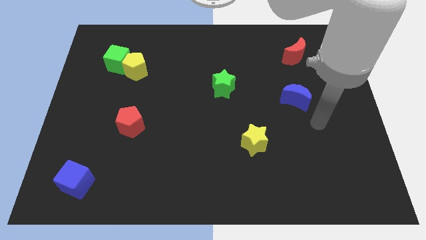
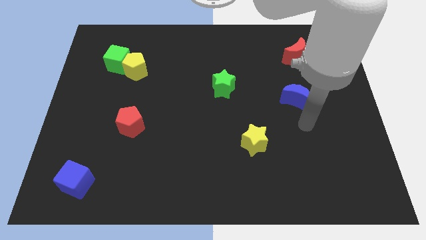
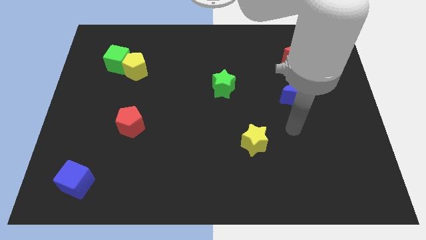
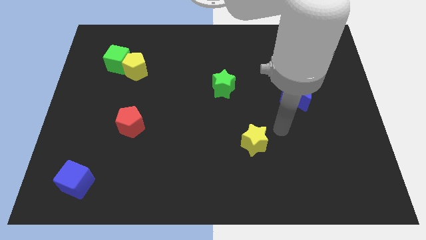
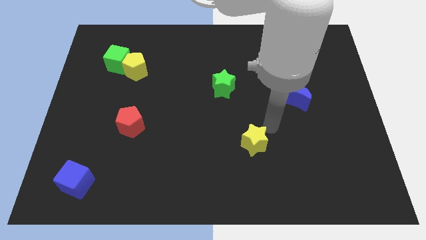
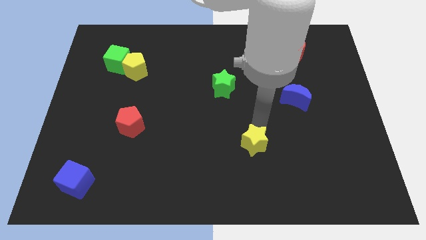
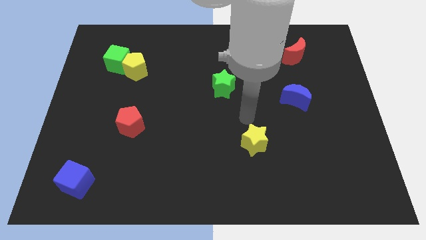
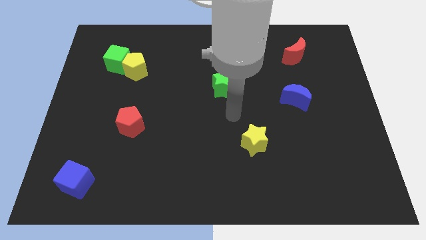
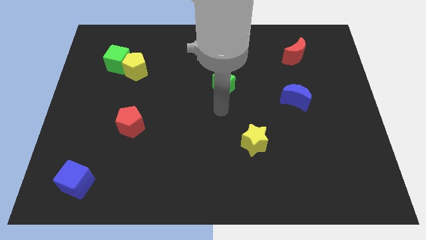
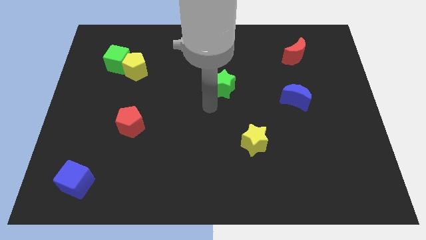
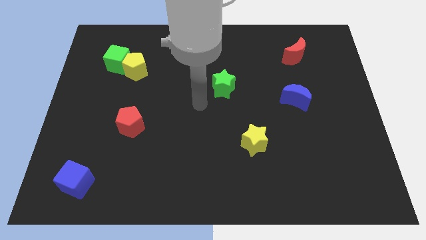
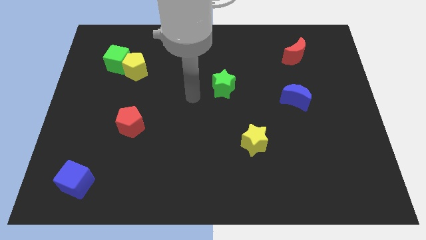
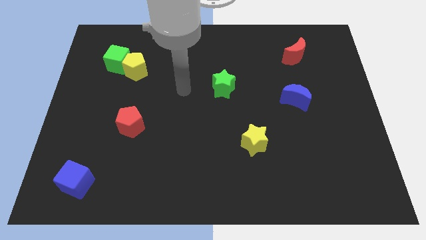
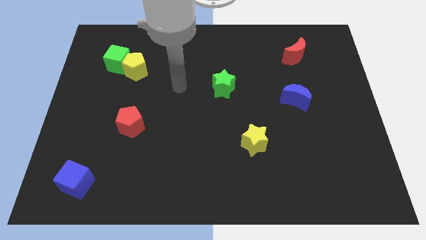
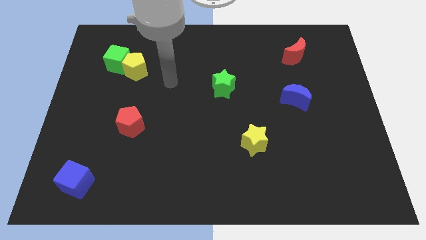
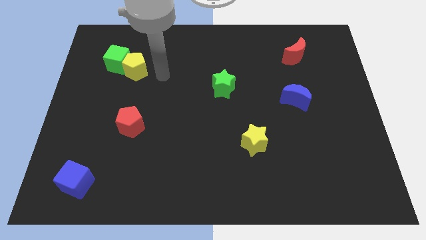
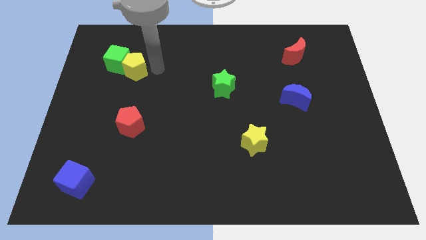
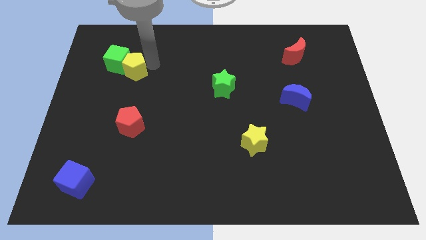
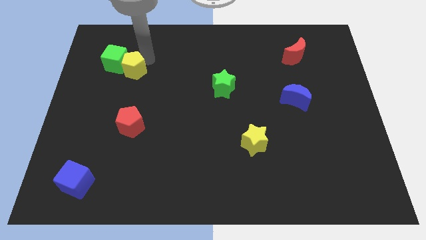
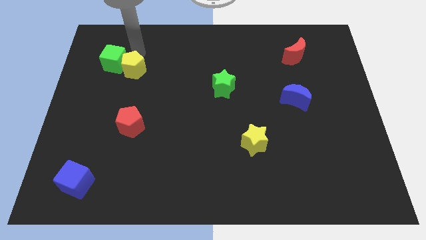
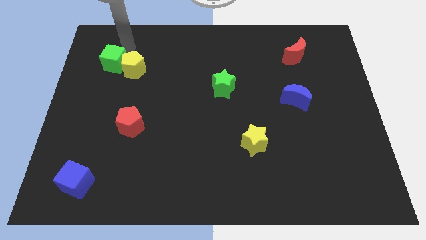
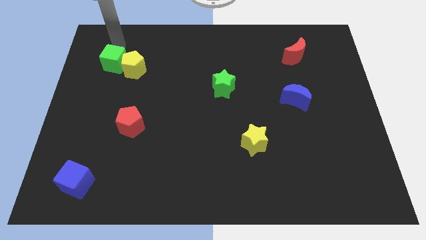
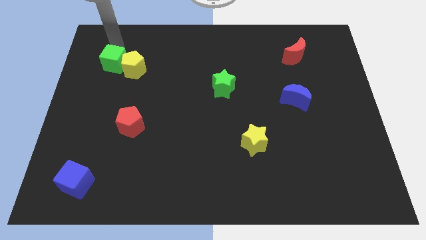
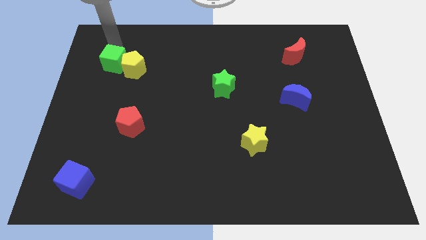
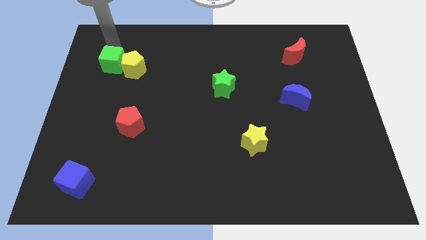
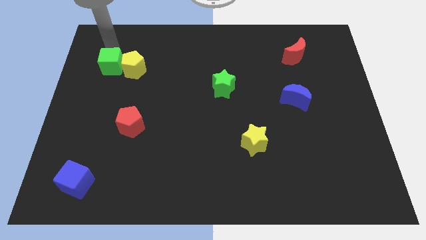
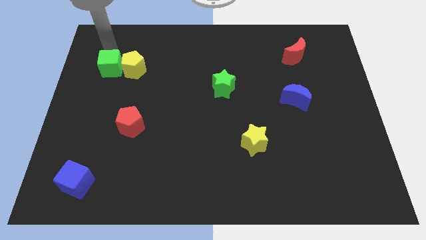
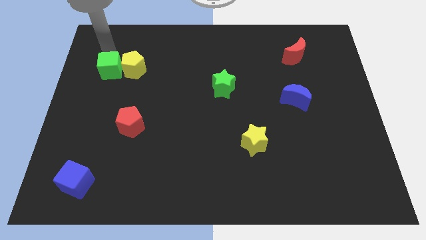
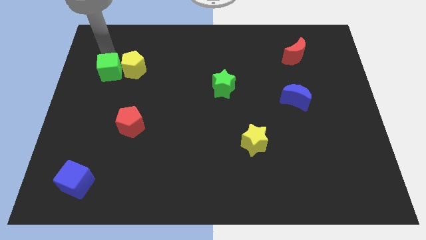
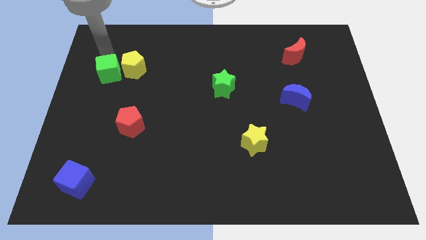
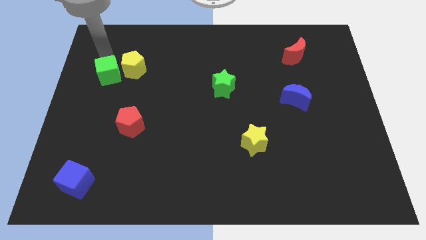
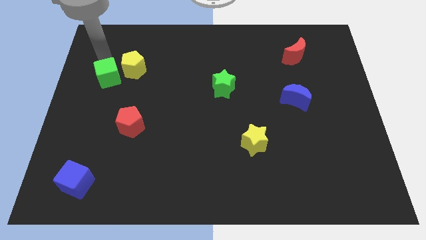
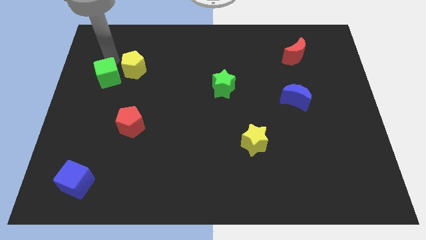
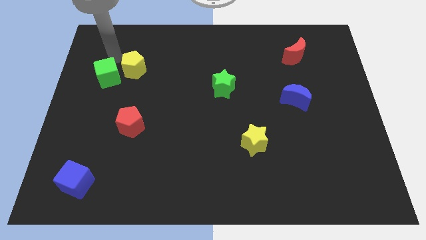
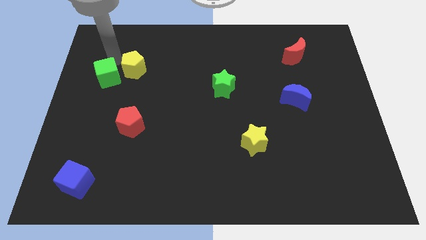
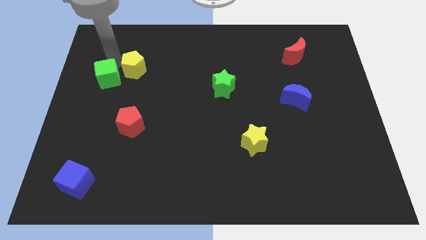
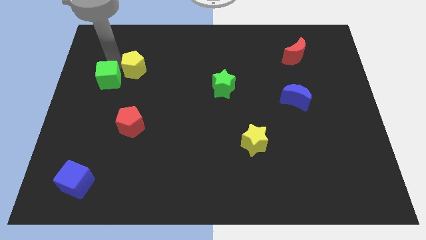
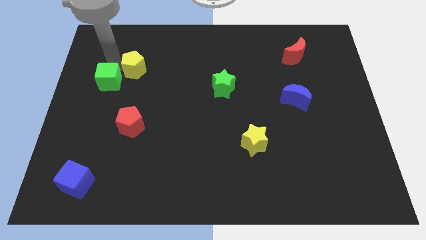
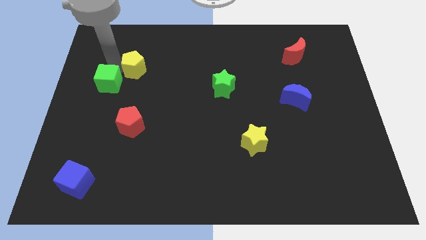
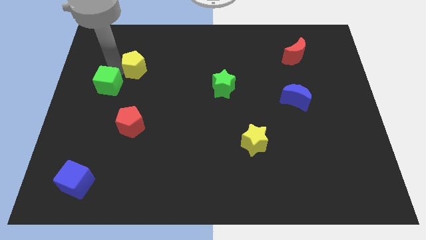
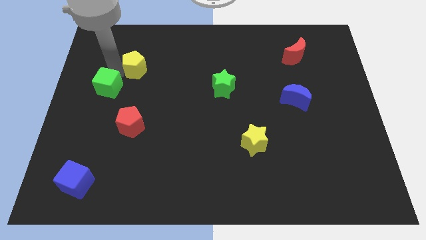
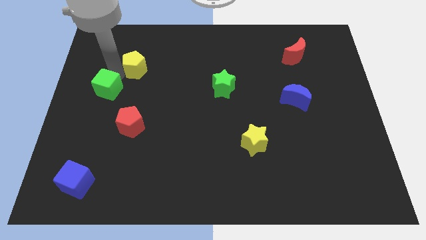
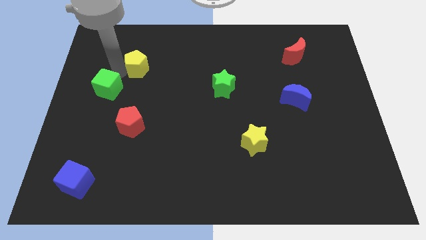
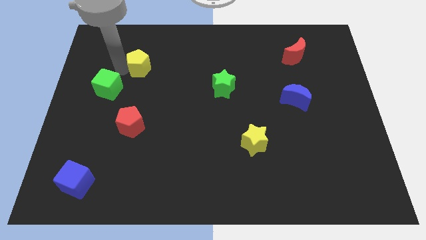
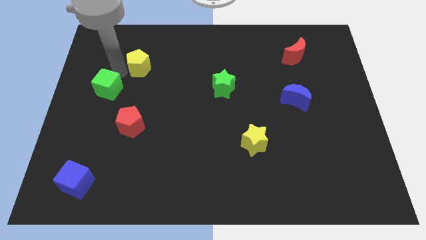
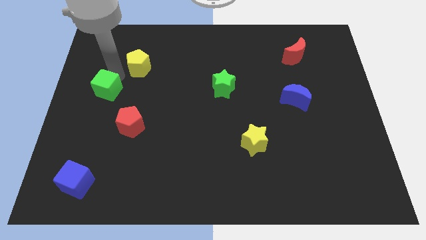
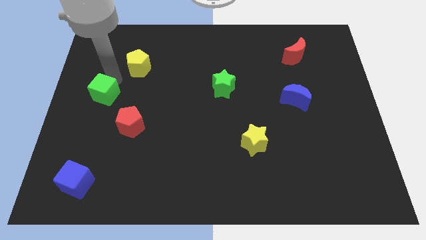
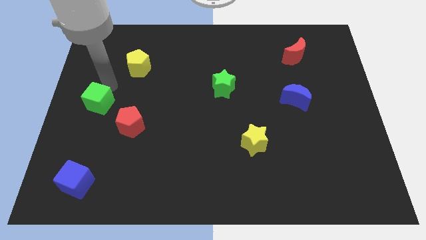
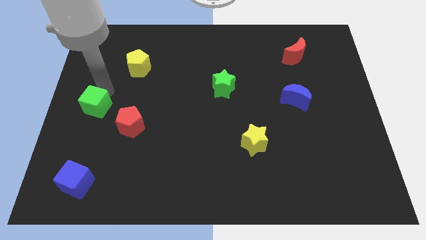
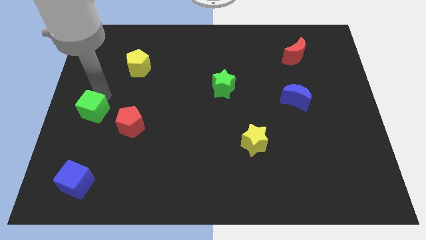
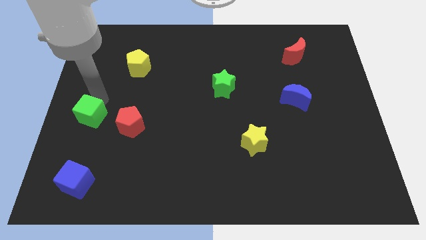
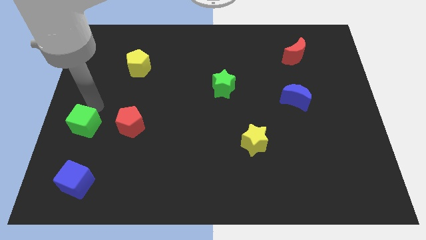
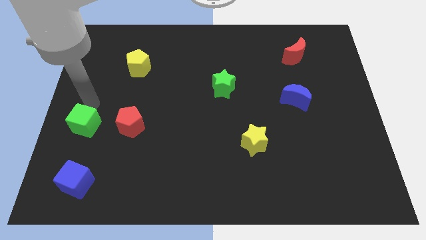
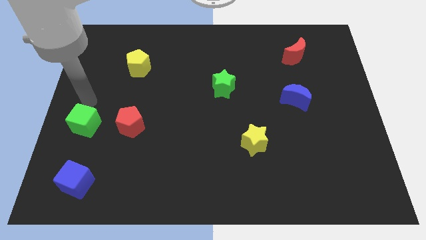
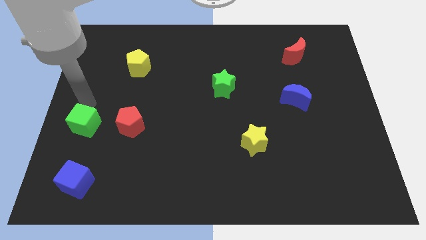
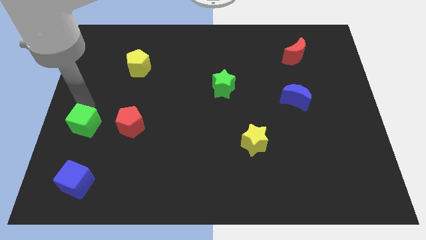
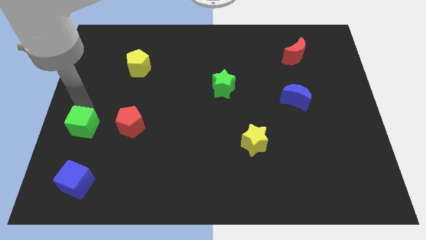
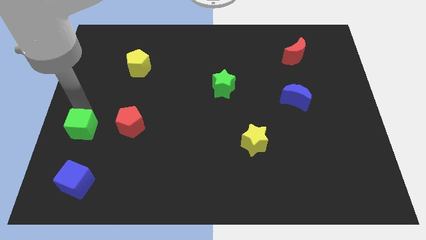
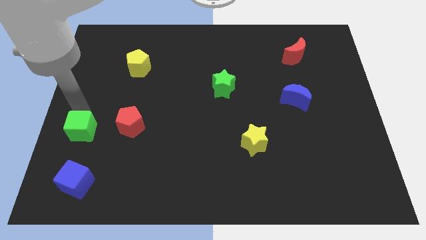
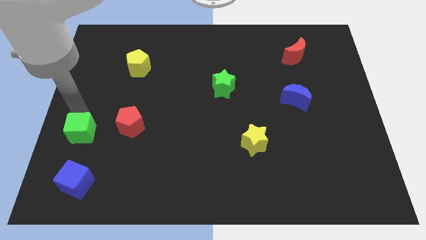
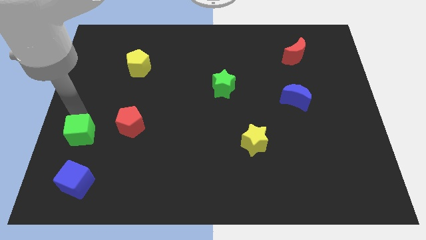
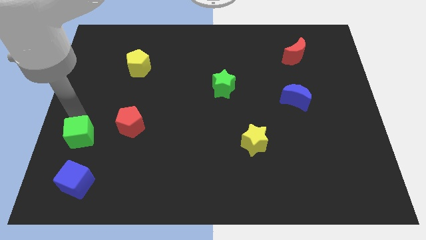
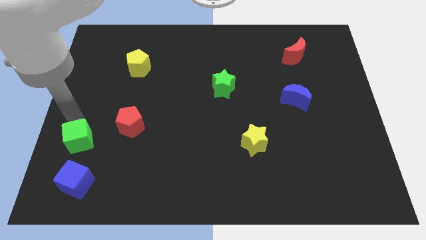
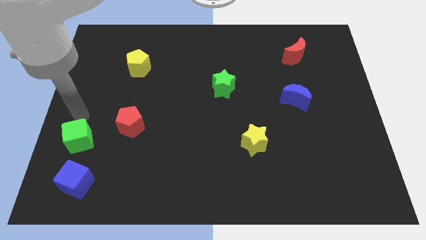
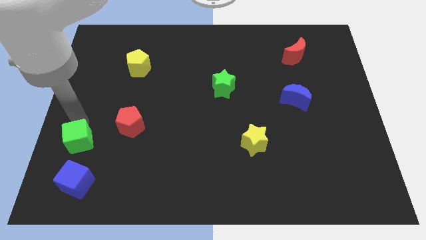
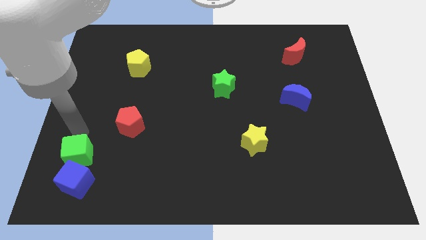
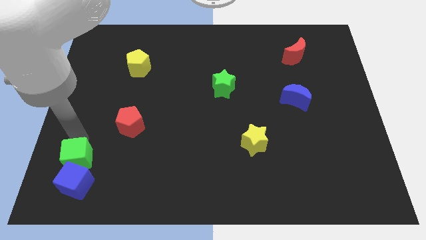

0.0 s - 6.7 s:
slide the green cube next to the blue cube
